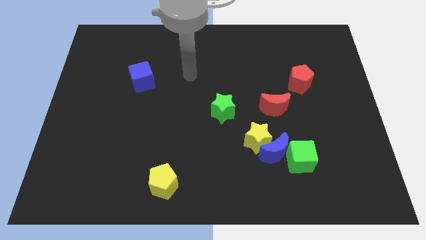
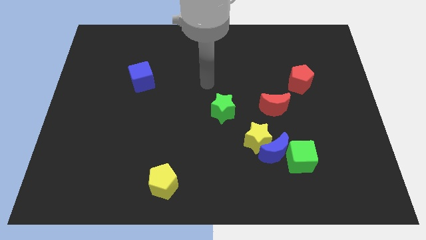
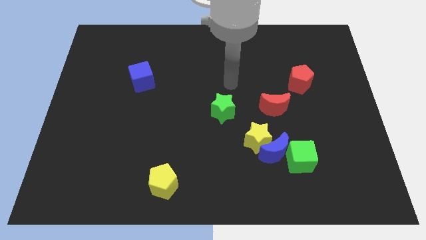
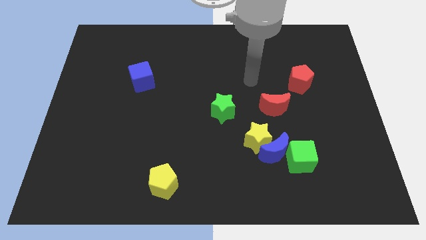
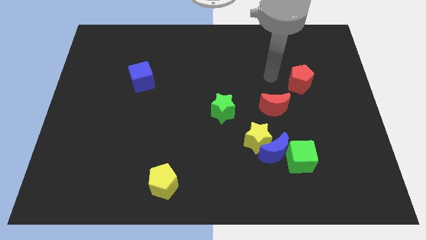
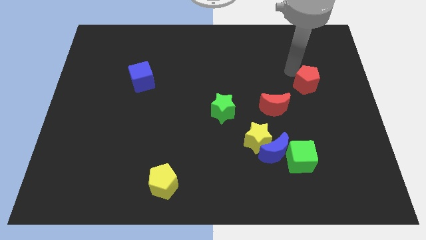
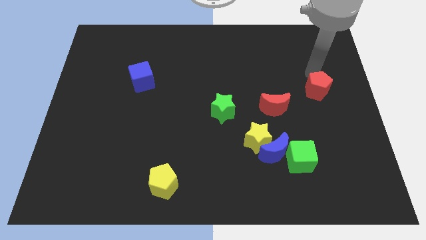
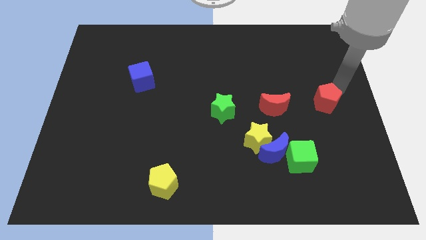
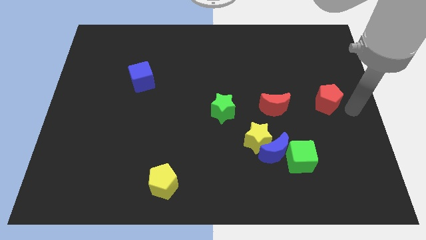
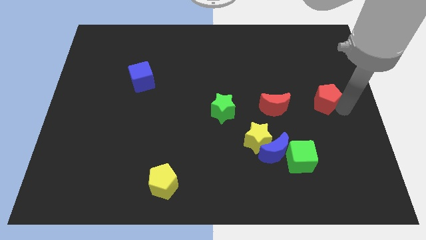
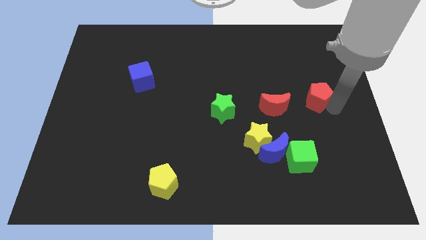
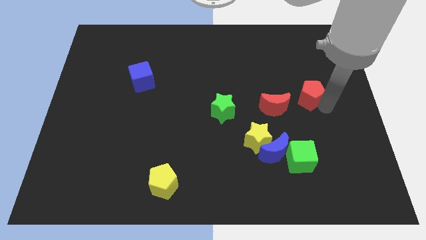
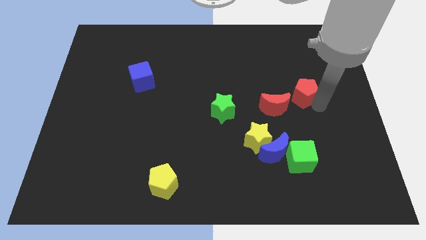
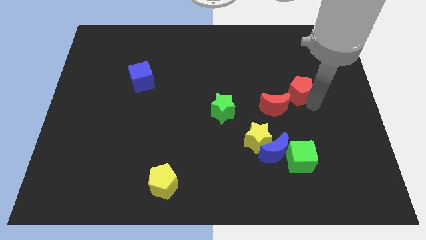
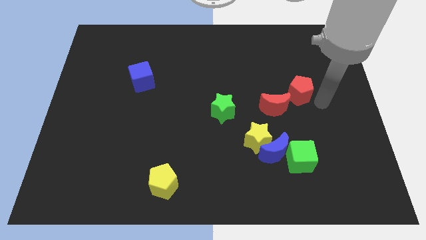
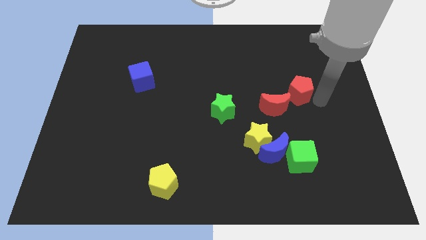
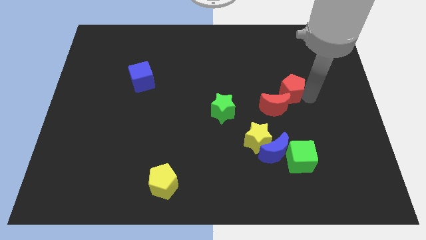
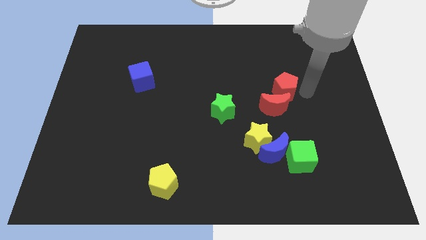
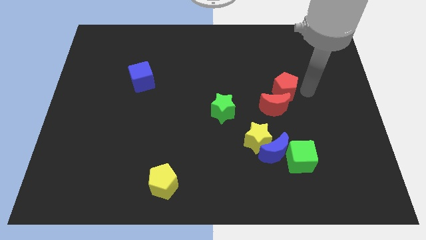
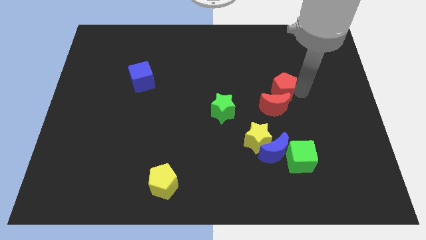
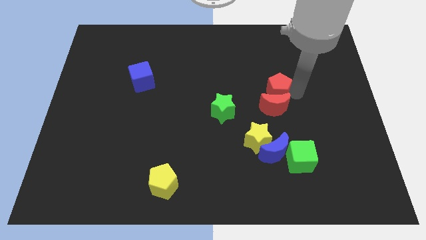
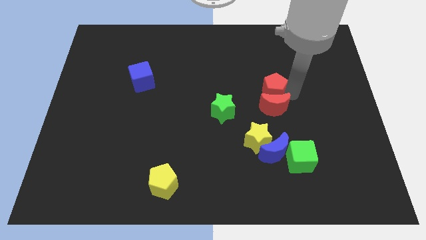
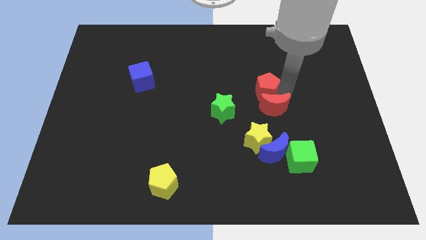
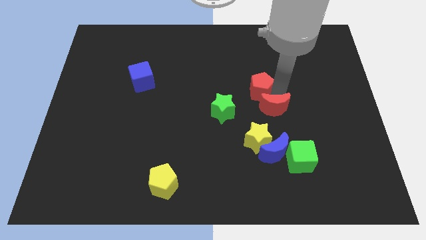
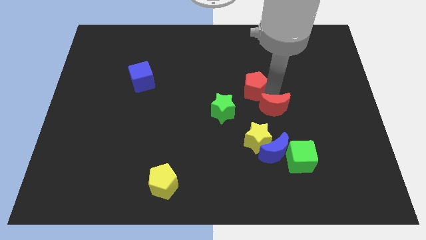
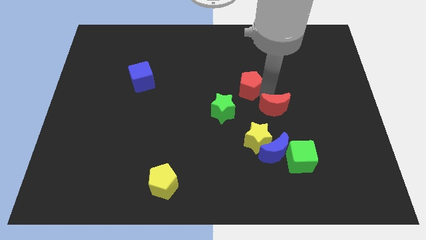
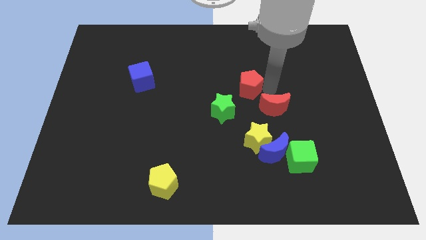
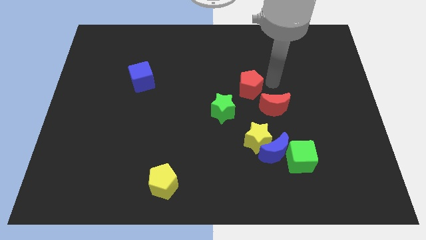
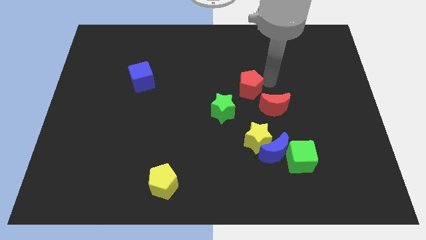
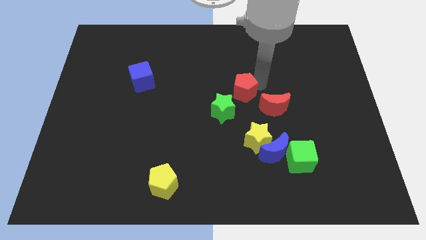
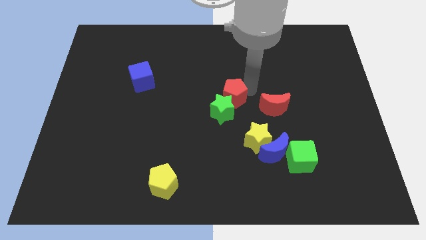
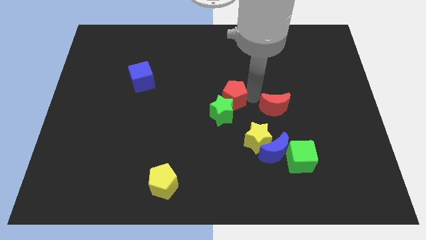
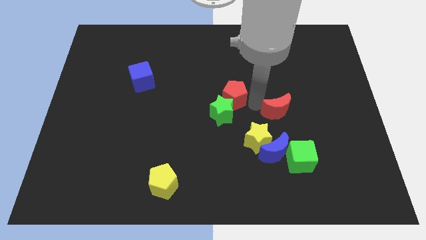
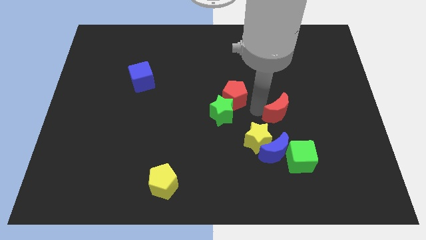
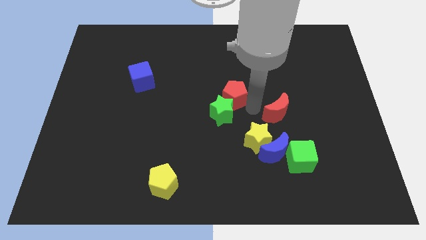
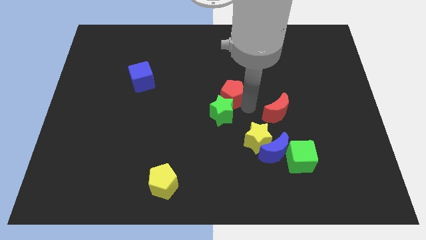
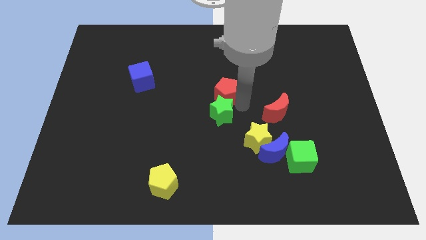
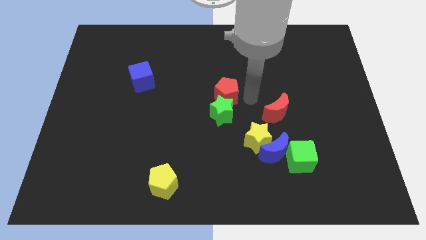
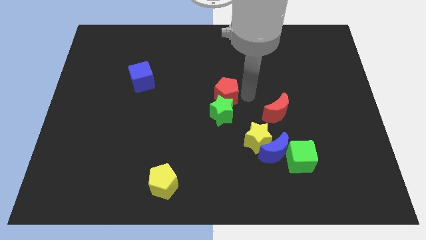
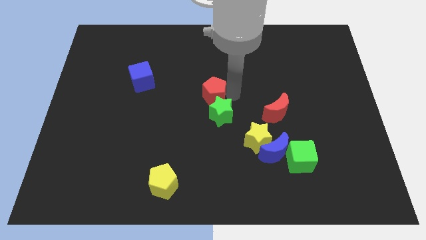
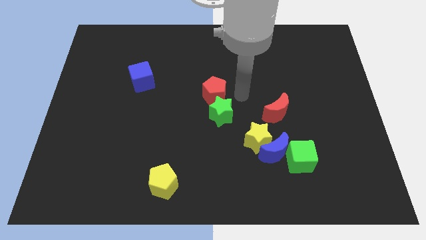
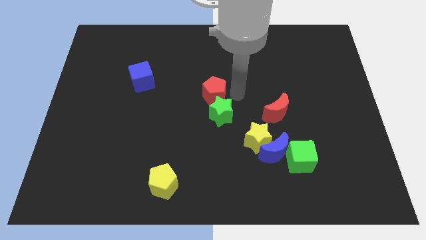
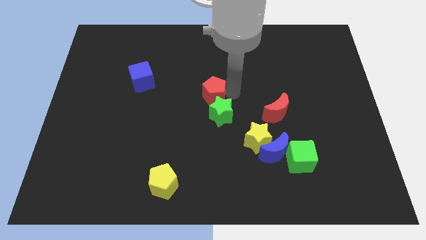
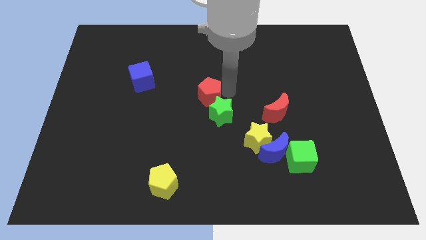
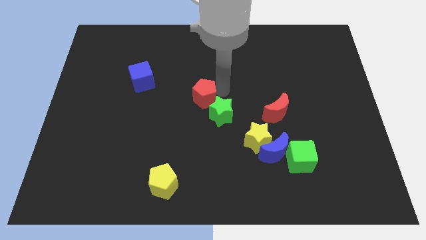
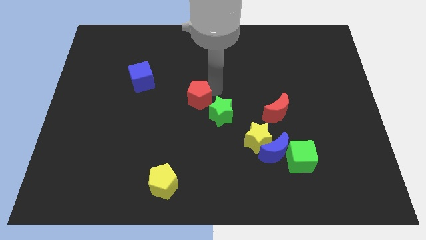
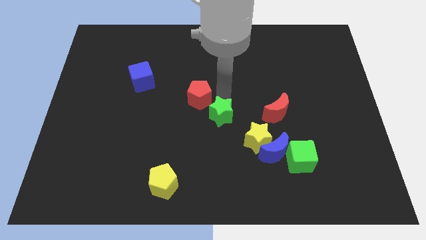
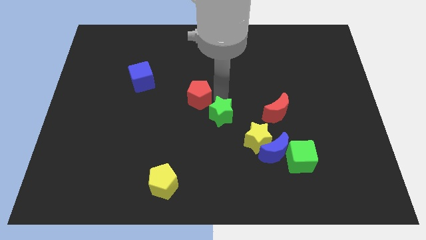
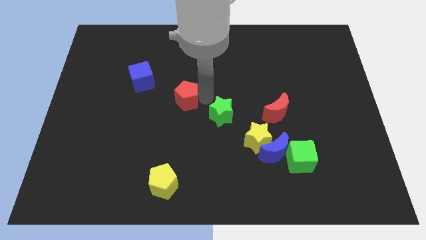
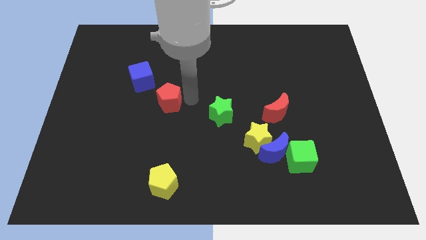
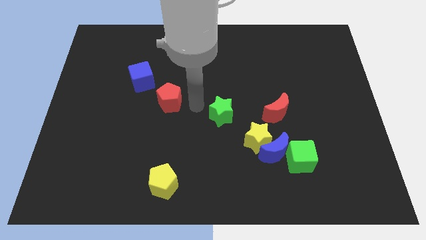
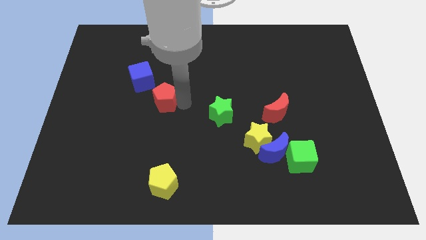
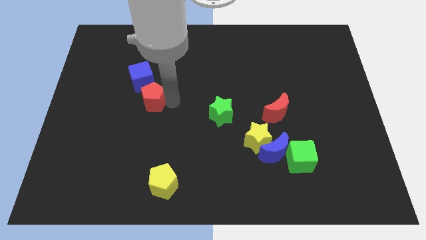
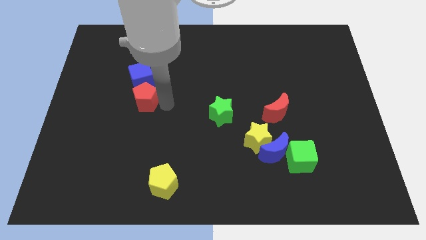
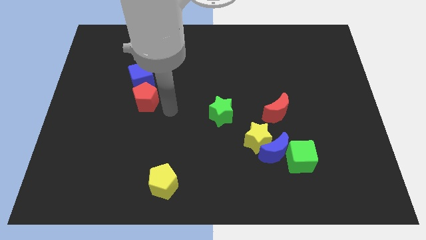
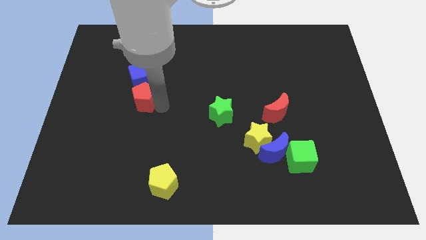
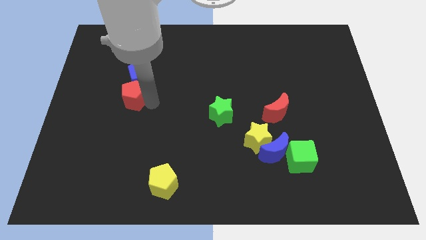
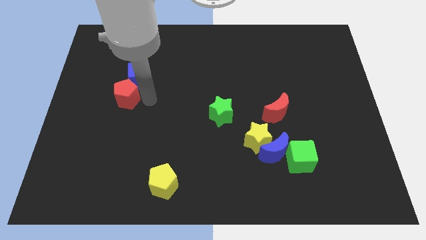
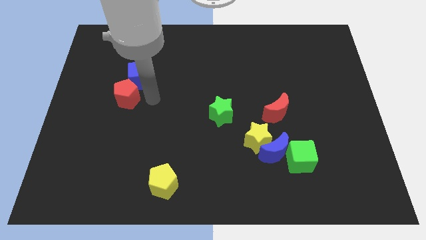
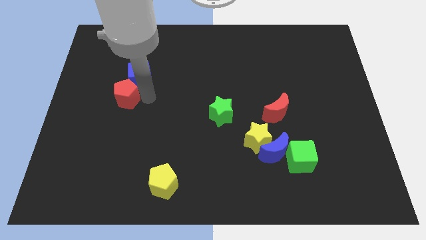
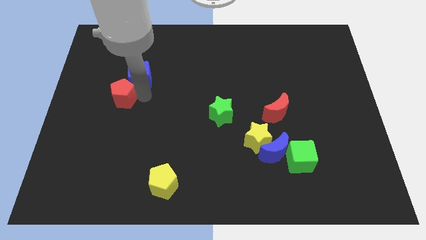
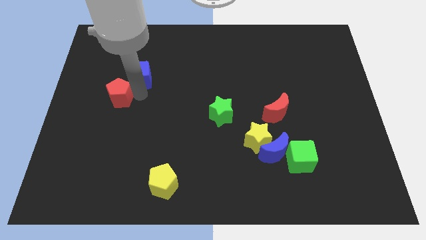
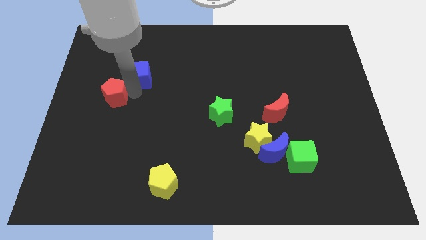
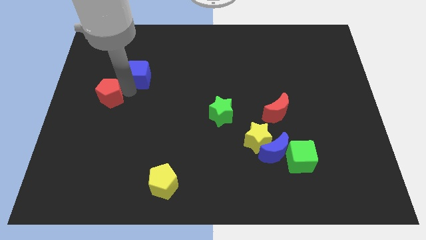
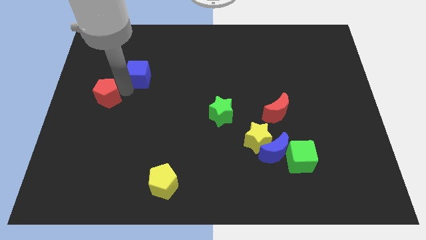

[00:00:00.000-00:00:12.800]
push the red pentagon to the center left
